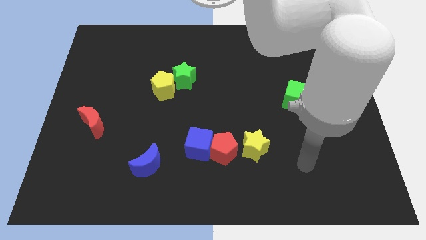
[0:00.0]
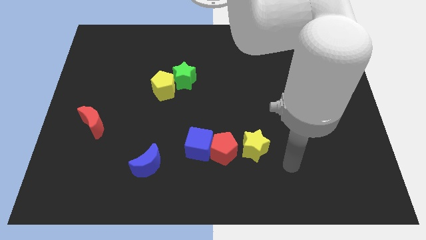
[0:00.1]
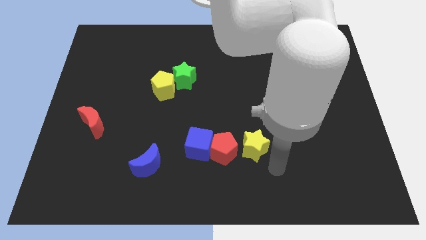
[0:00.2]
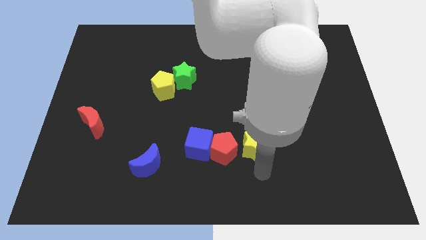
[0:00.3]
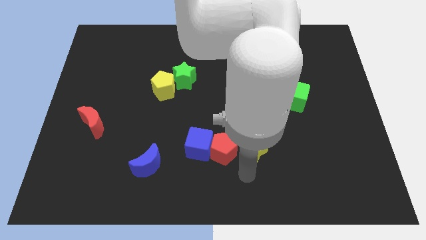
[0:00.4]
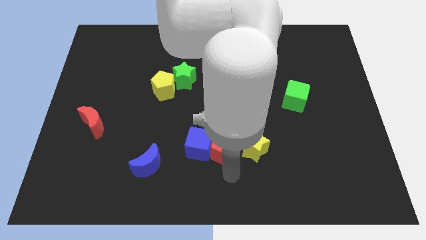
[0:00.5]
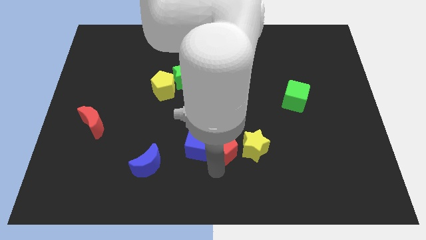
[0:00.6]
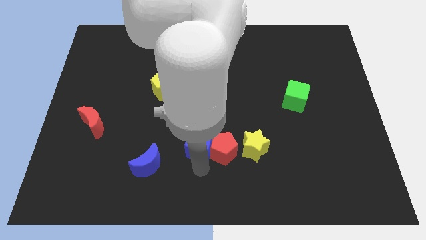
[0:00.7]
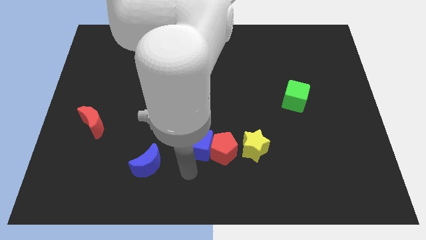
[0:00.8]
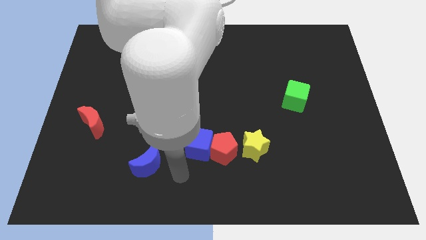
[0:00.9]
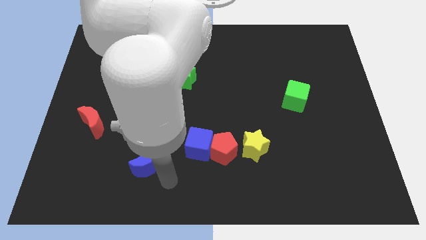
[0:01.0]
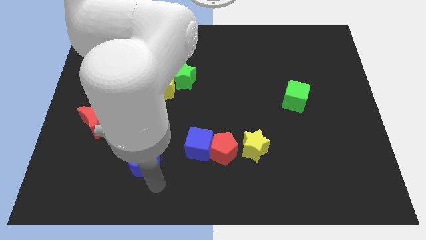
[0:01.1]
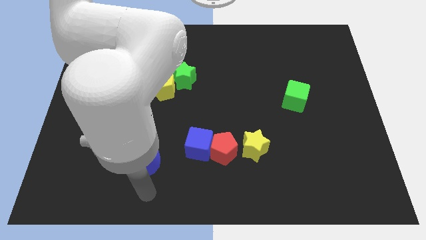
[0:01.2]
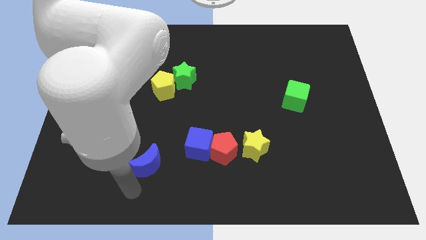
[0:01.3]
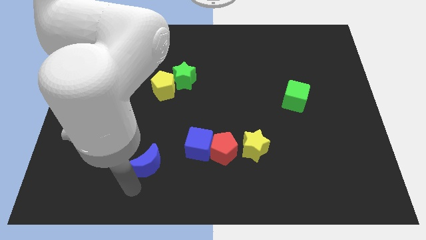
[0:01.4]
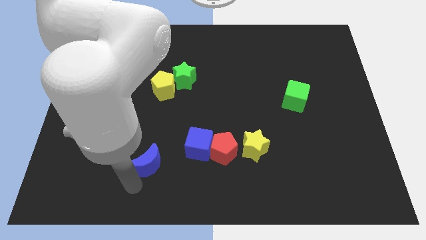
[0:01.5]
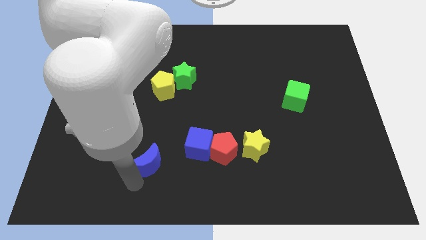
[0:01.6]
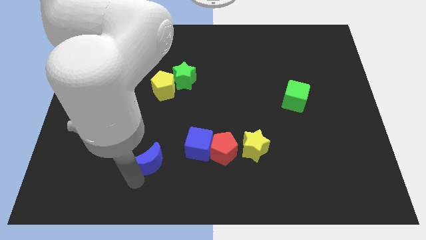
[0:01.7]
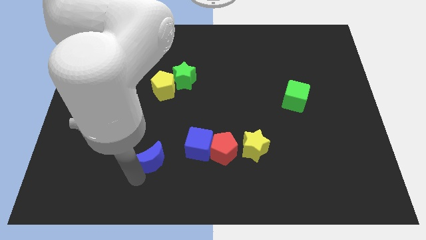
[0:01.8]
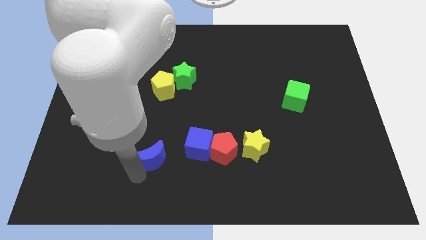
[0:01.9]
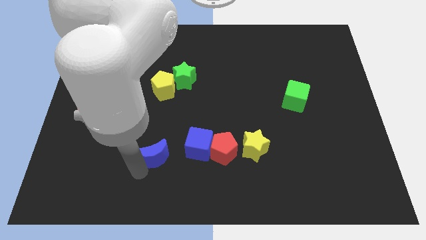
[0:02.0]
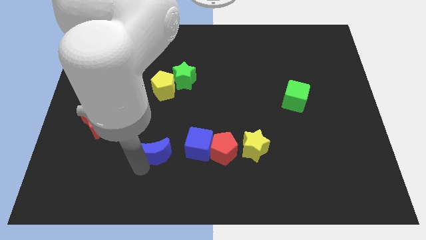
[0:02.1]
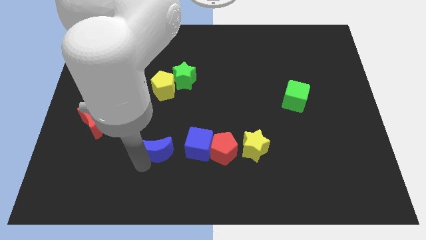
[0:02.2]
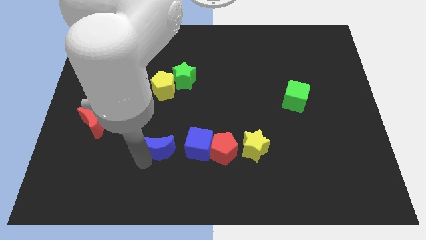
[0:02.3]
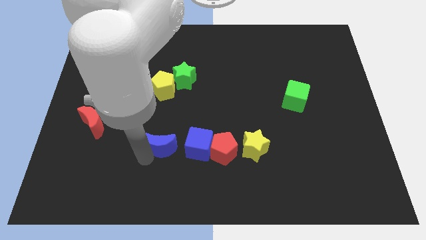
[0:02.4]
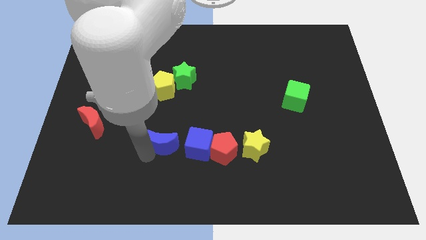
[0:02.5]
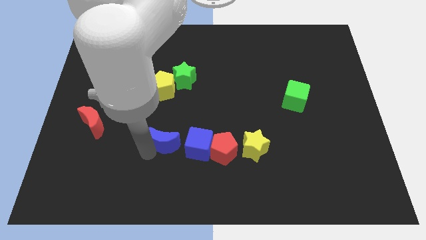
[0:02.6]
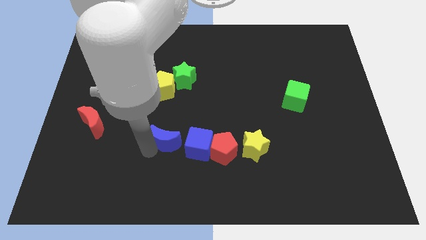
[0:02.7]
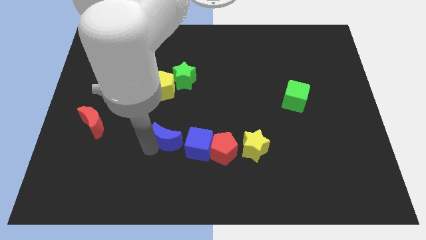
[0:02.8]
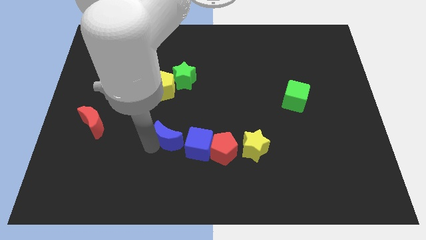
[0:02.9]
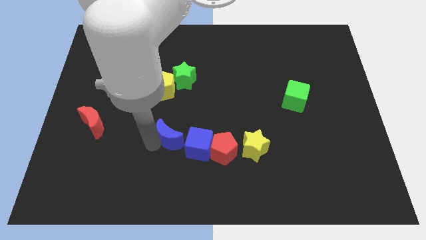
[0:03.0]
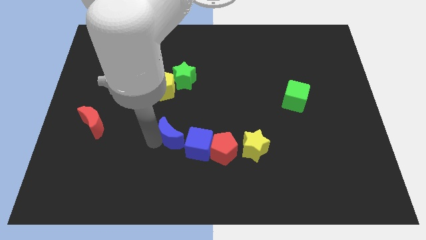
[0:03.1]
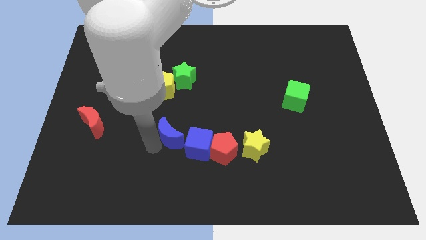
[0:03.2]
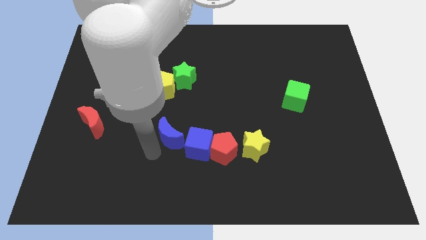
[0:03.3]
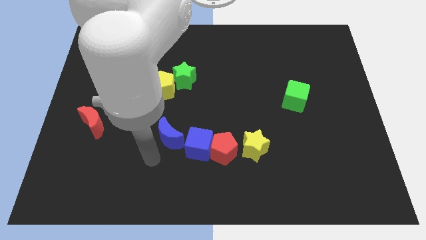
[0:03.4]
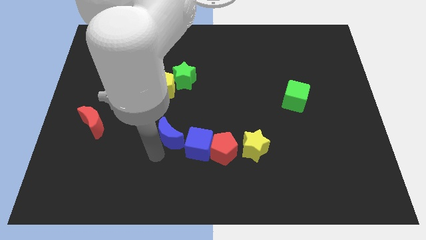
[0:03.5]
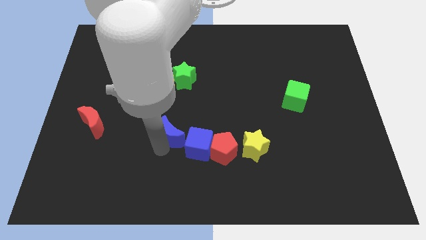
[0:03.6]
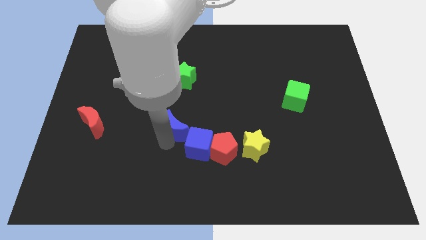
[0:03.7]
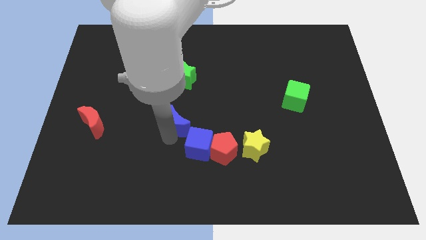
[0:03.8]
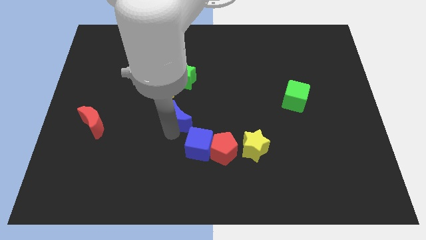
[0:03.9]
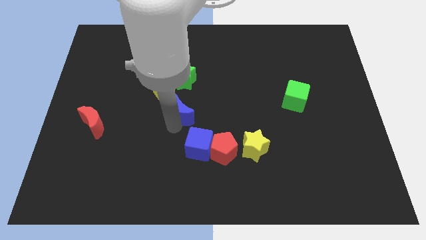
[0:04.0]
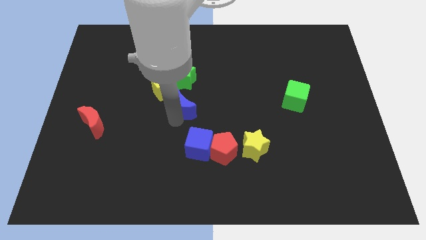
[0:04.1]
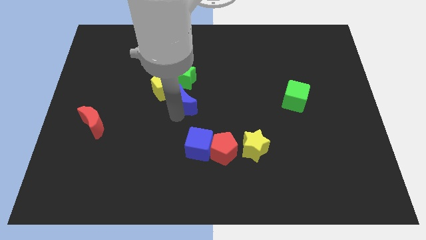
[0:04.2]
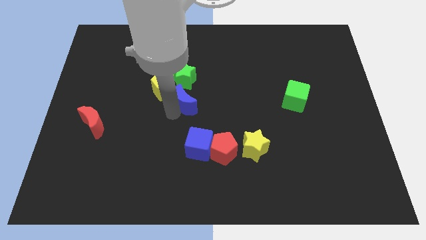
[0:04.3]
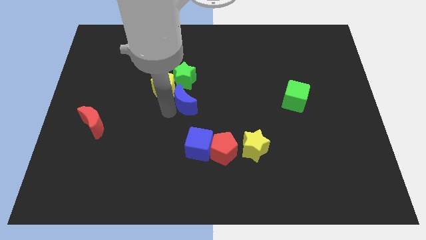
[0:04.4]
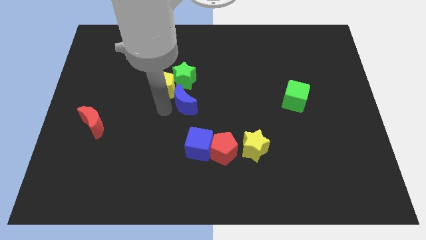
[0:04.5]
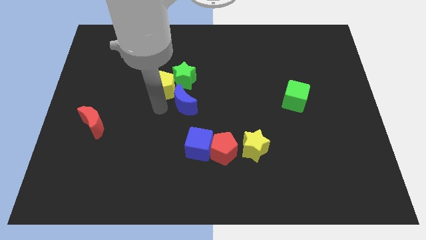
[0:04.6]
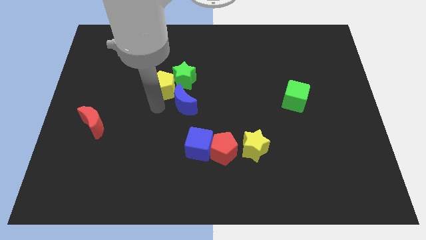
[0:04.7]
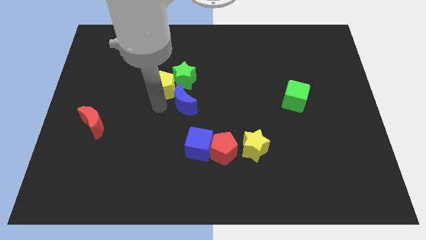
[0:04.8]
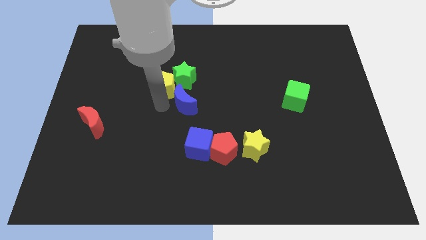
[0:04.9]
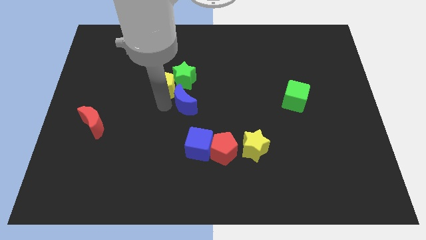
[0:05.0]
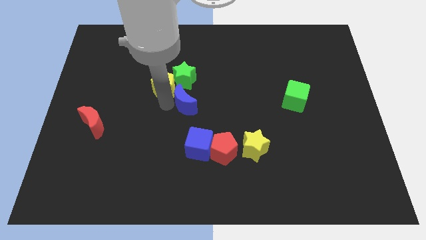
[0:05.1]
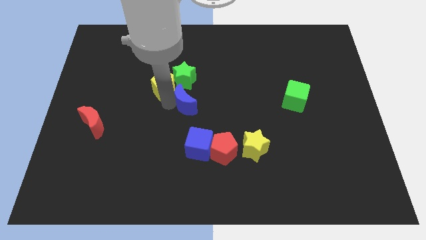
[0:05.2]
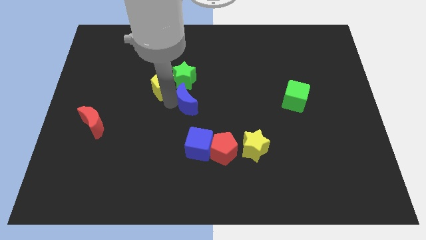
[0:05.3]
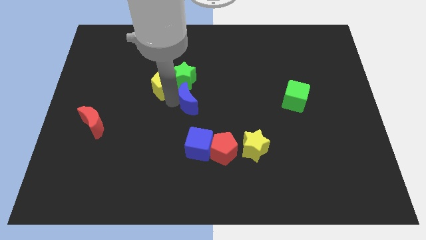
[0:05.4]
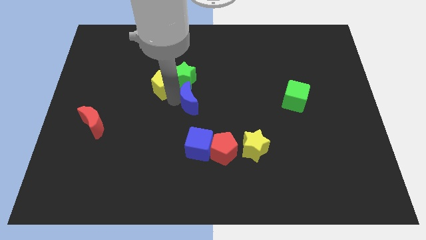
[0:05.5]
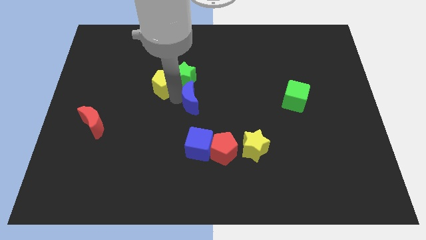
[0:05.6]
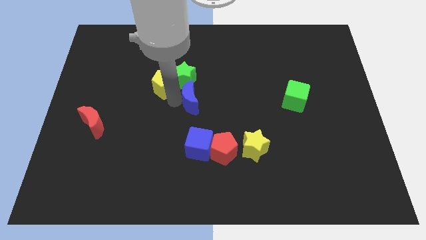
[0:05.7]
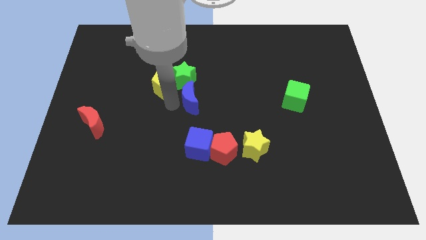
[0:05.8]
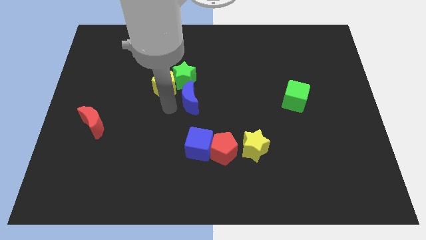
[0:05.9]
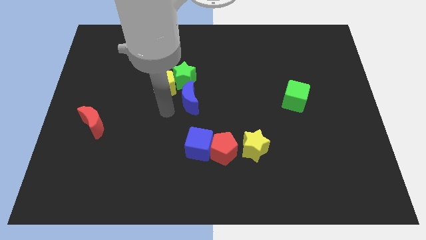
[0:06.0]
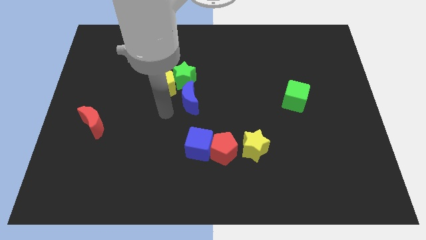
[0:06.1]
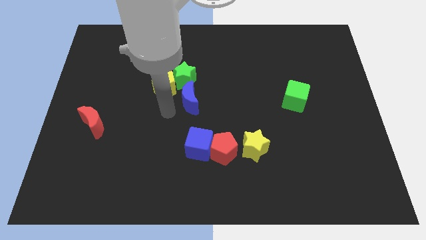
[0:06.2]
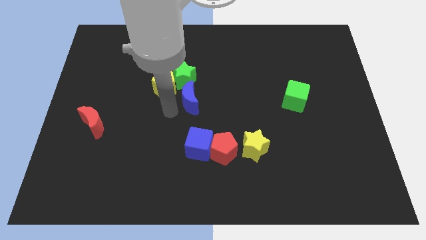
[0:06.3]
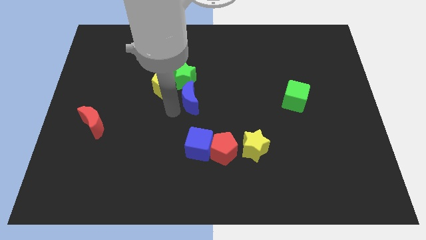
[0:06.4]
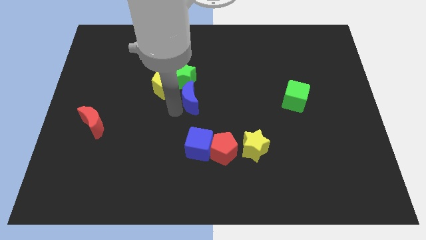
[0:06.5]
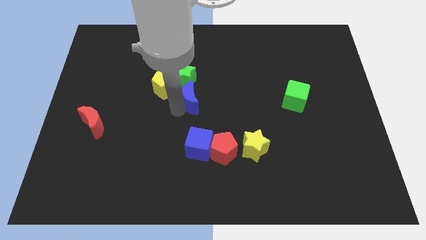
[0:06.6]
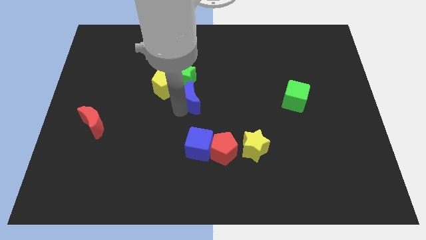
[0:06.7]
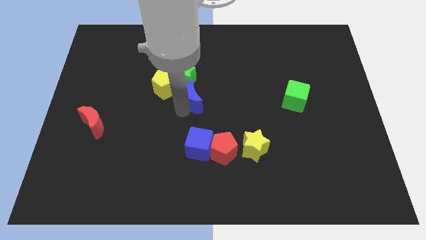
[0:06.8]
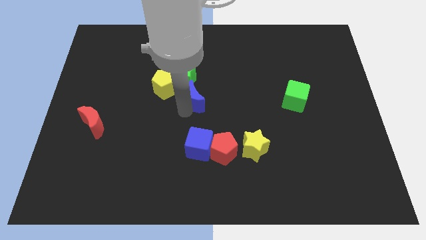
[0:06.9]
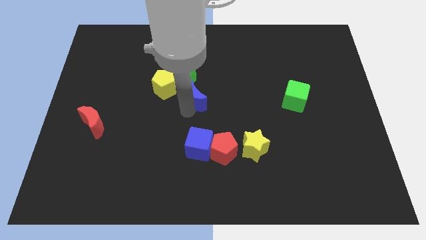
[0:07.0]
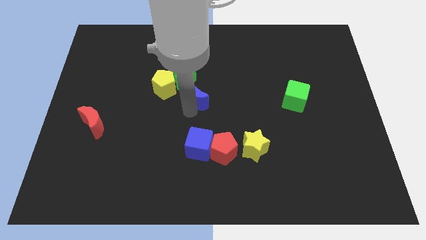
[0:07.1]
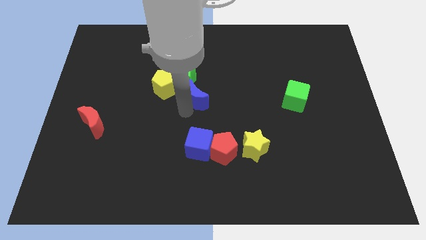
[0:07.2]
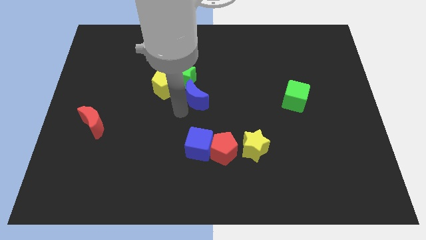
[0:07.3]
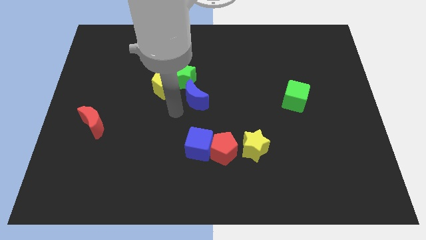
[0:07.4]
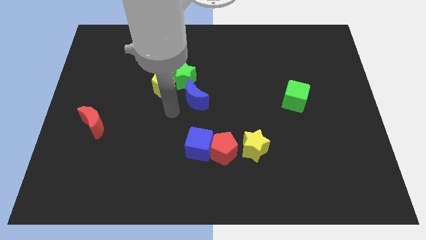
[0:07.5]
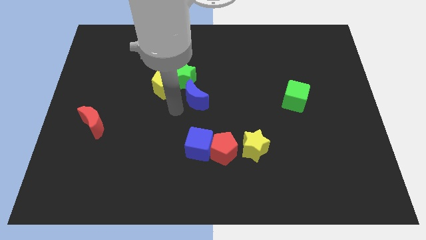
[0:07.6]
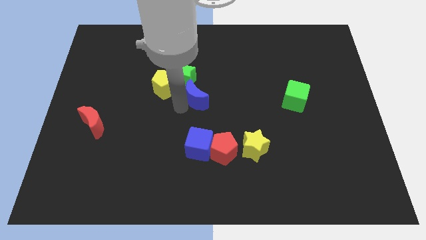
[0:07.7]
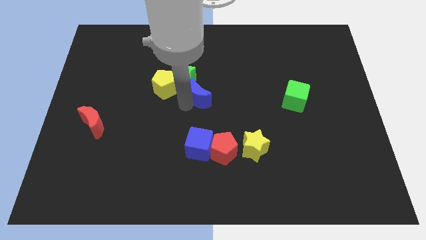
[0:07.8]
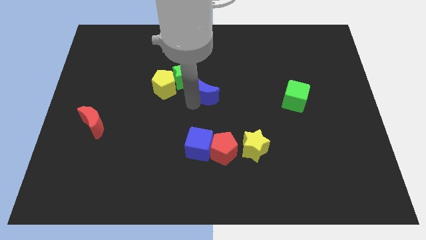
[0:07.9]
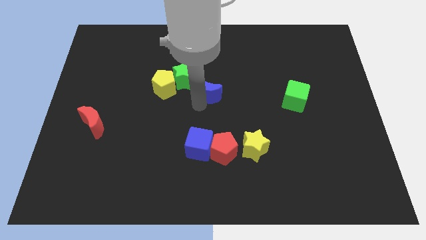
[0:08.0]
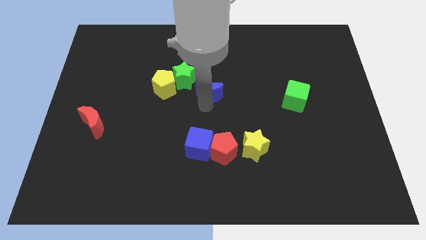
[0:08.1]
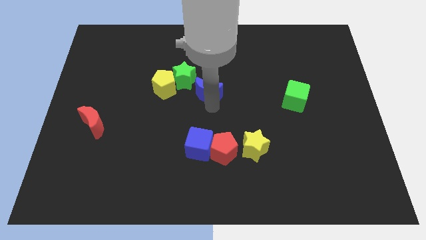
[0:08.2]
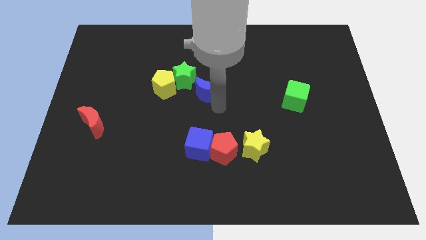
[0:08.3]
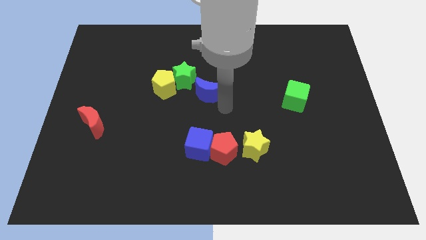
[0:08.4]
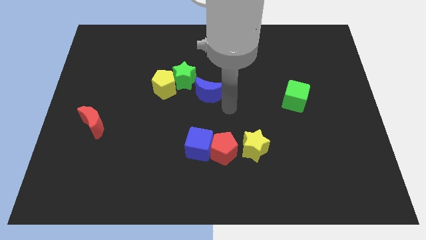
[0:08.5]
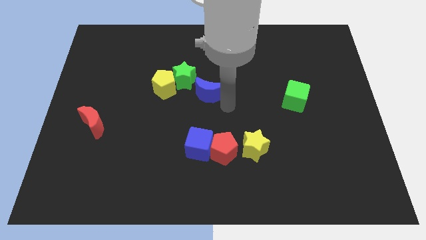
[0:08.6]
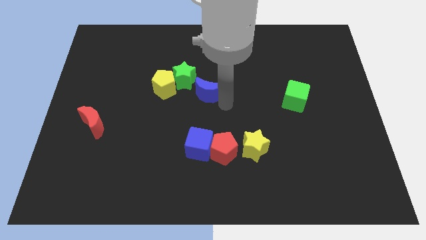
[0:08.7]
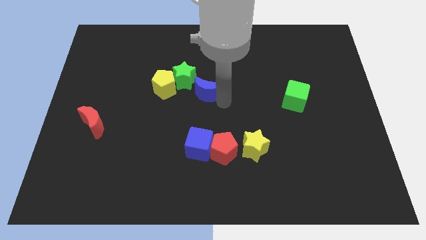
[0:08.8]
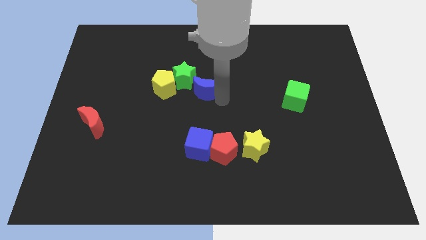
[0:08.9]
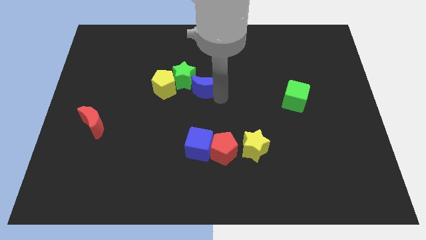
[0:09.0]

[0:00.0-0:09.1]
slide the blue moon next to the green star
